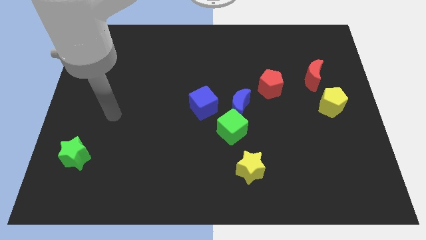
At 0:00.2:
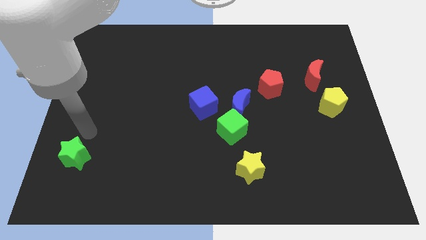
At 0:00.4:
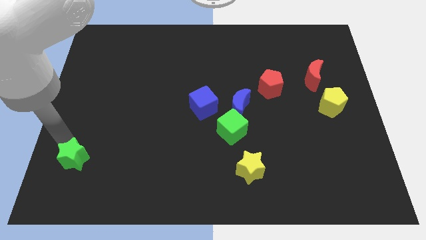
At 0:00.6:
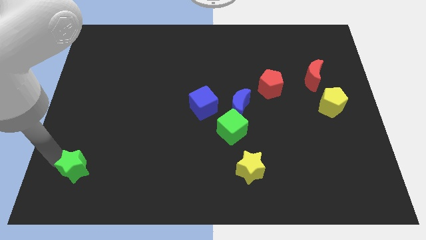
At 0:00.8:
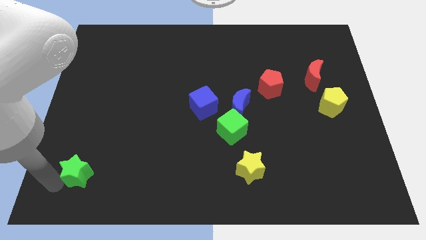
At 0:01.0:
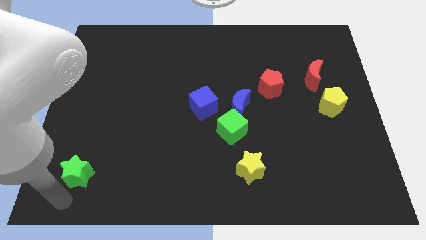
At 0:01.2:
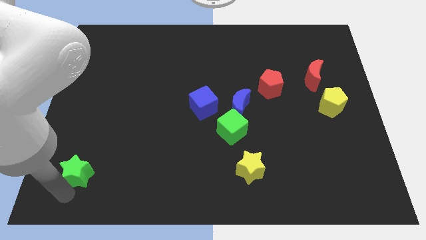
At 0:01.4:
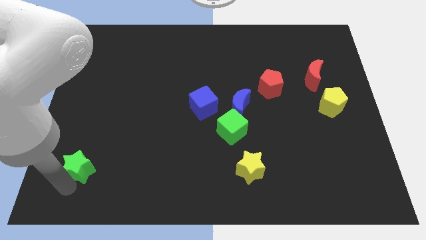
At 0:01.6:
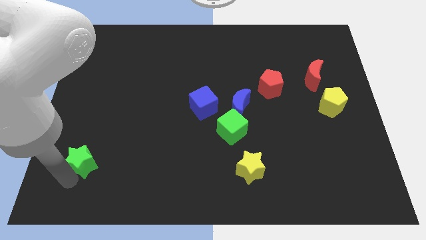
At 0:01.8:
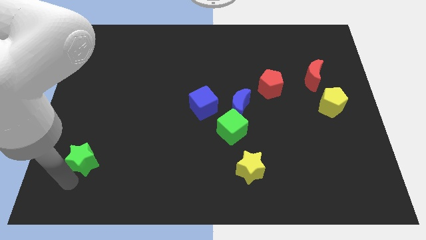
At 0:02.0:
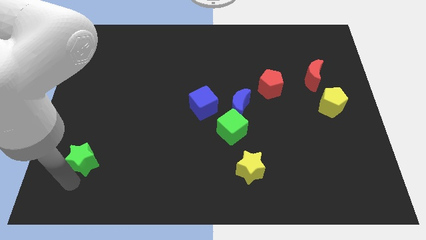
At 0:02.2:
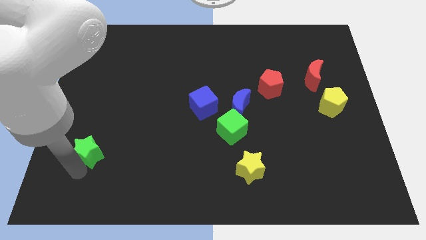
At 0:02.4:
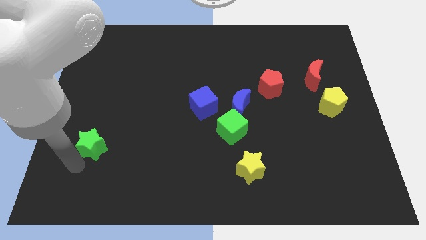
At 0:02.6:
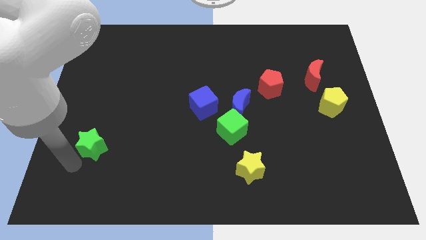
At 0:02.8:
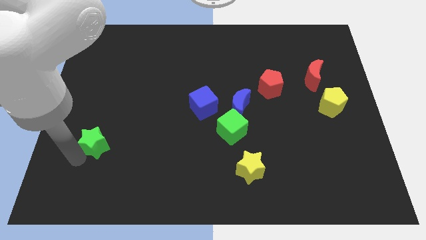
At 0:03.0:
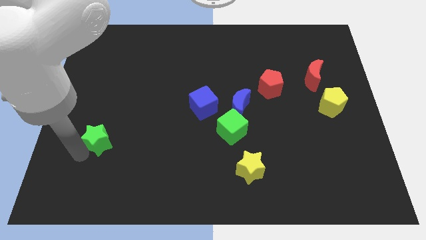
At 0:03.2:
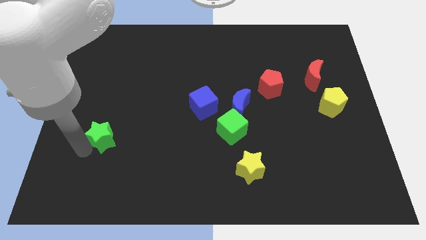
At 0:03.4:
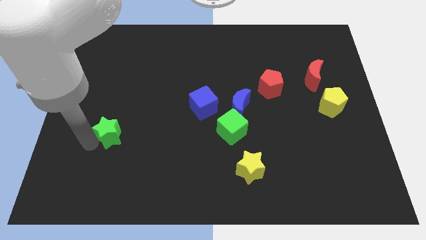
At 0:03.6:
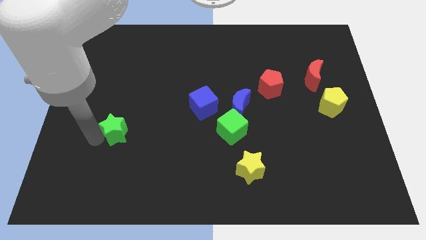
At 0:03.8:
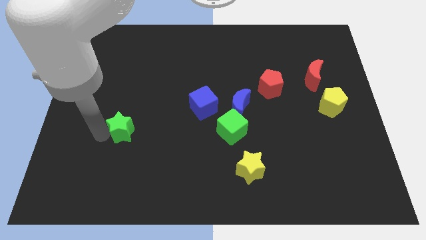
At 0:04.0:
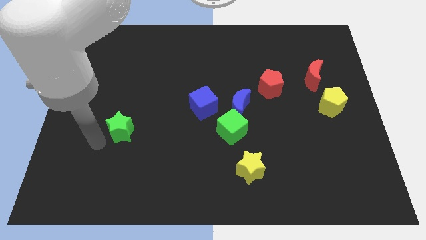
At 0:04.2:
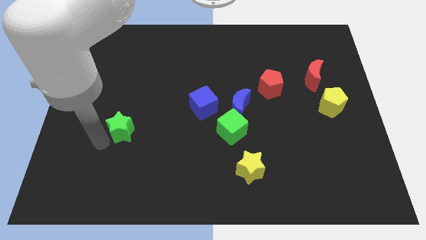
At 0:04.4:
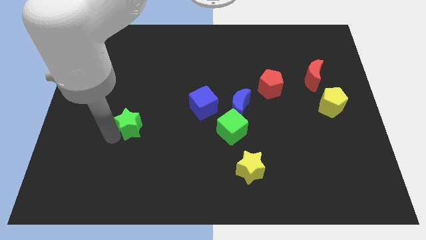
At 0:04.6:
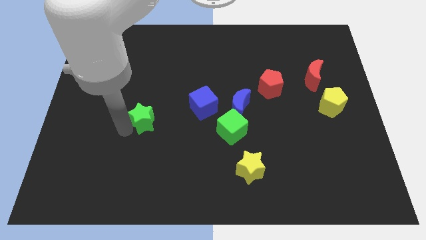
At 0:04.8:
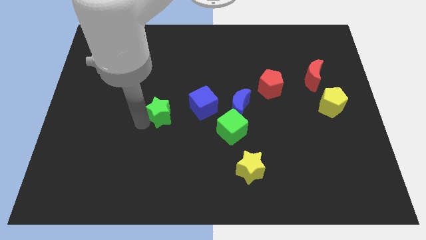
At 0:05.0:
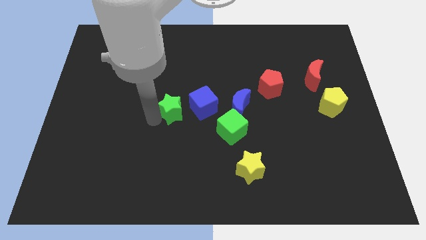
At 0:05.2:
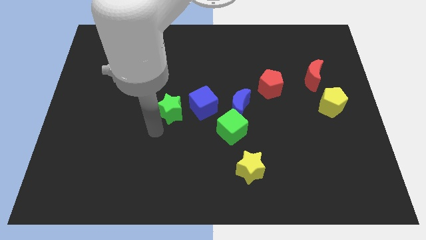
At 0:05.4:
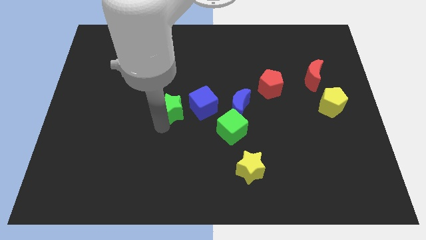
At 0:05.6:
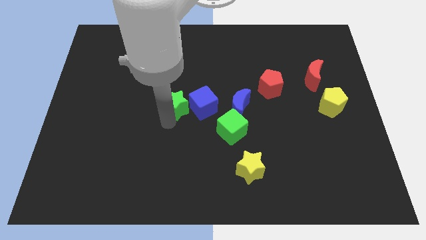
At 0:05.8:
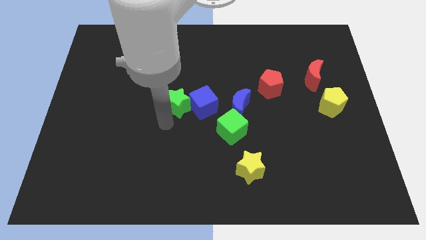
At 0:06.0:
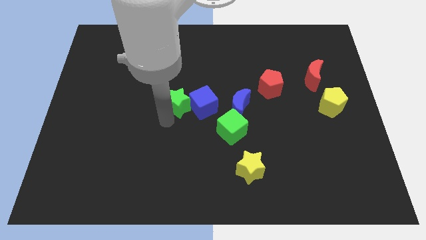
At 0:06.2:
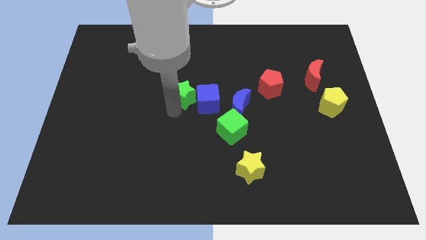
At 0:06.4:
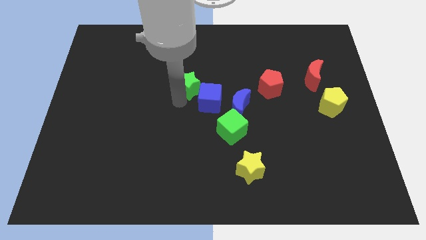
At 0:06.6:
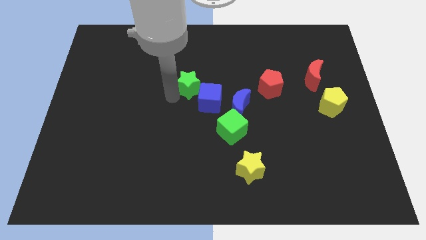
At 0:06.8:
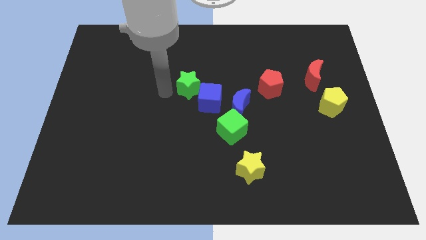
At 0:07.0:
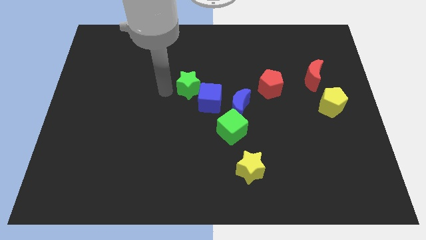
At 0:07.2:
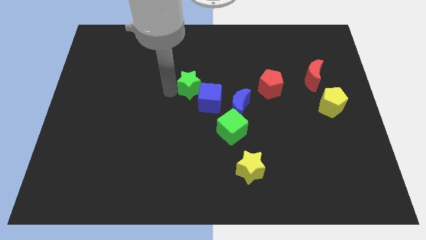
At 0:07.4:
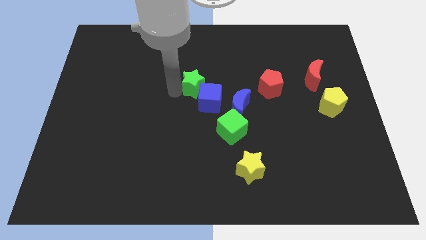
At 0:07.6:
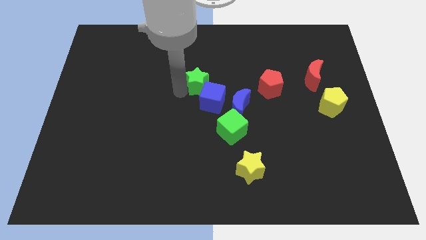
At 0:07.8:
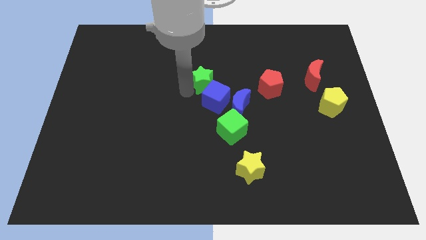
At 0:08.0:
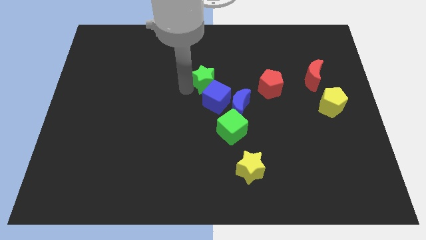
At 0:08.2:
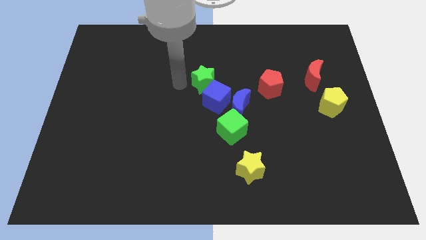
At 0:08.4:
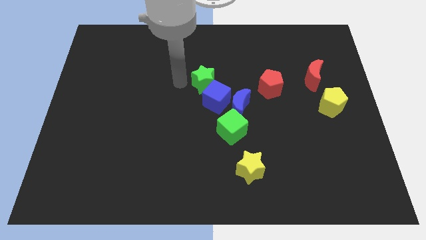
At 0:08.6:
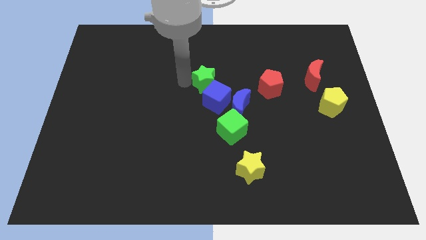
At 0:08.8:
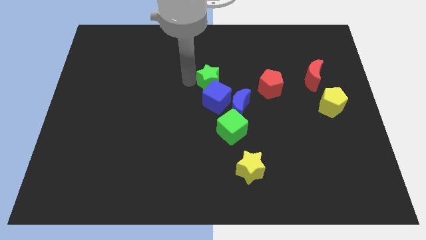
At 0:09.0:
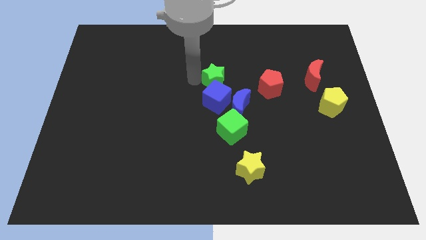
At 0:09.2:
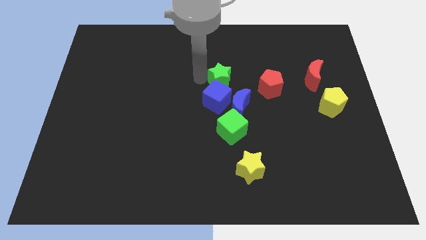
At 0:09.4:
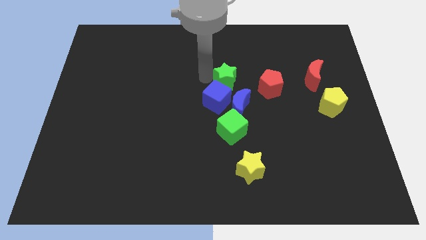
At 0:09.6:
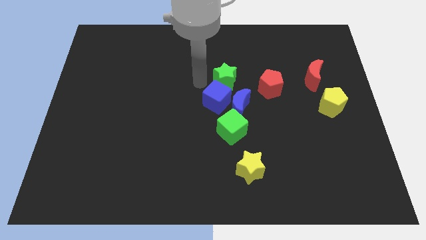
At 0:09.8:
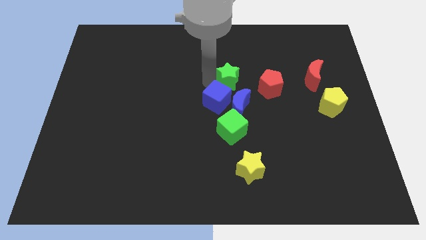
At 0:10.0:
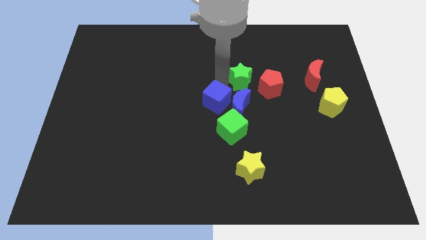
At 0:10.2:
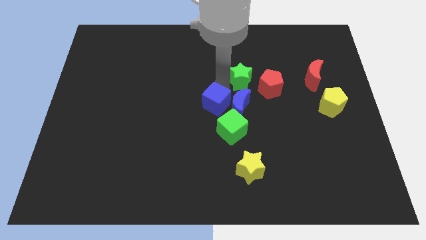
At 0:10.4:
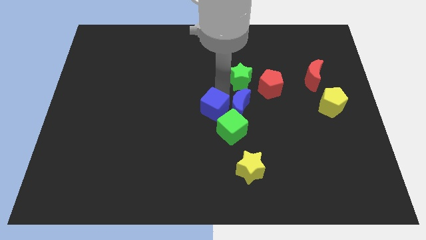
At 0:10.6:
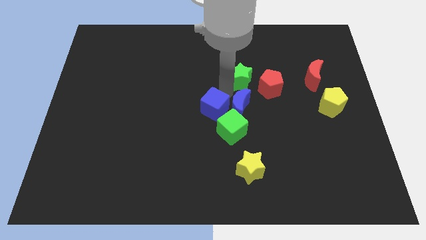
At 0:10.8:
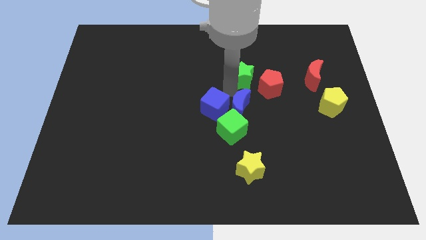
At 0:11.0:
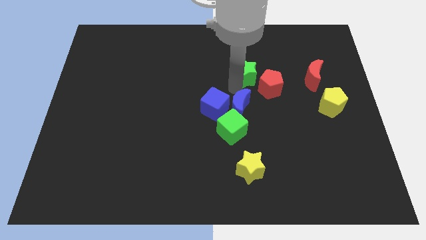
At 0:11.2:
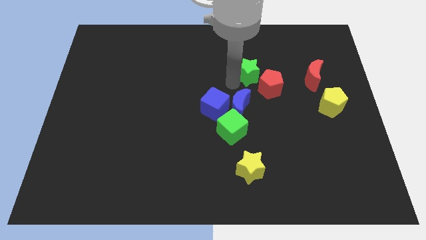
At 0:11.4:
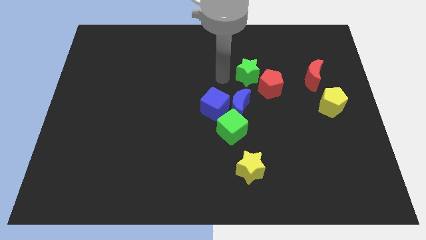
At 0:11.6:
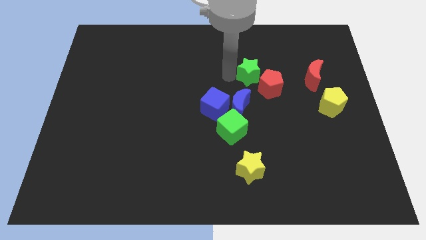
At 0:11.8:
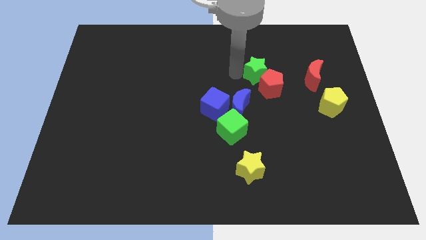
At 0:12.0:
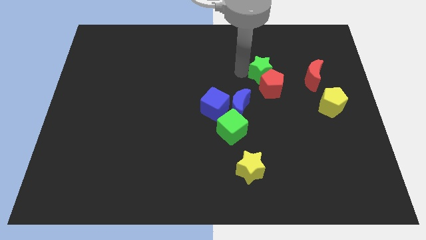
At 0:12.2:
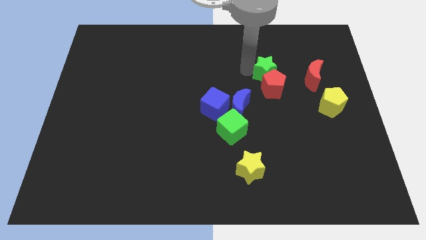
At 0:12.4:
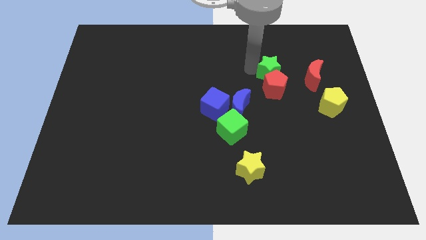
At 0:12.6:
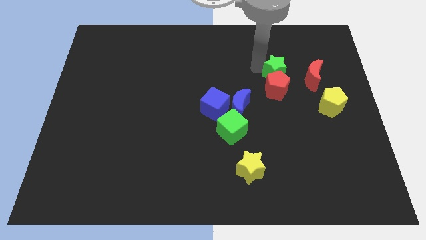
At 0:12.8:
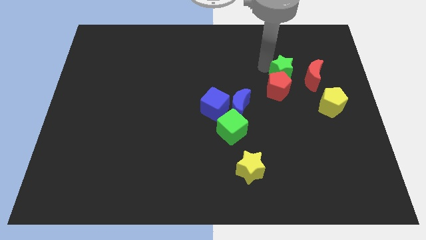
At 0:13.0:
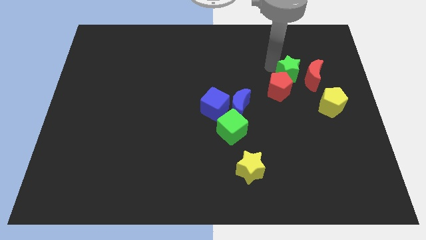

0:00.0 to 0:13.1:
push the green star to the red moon
